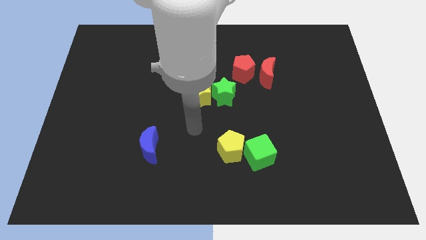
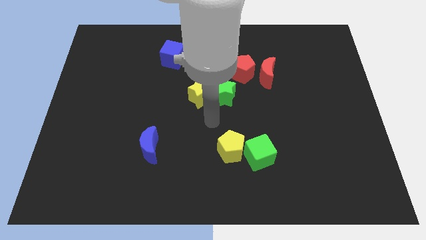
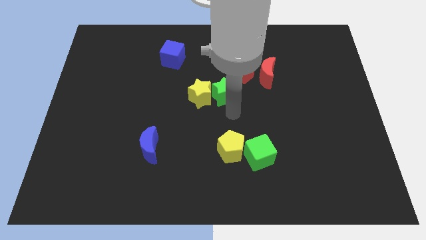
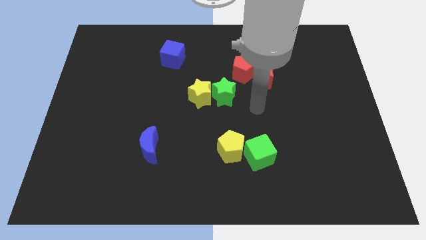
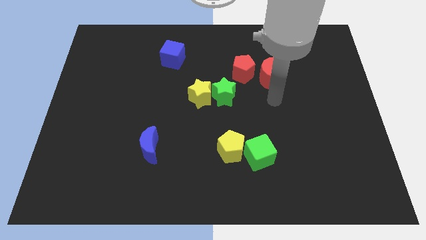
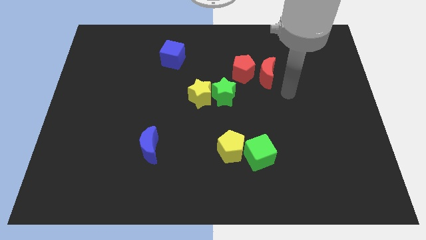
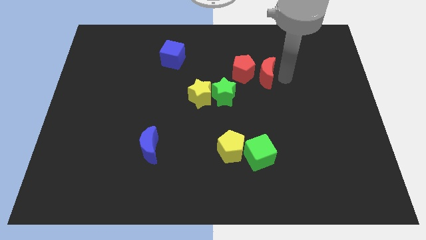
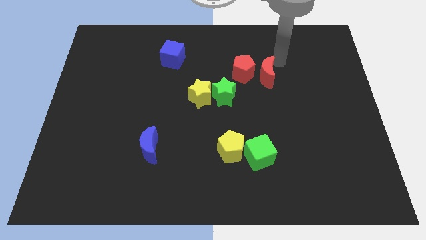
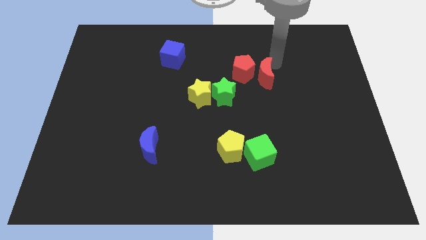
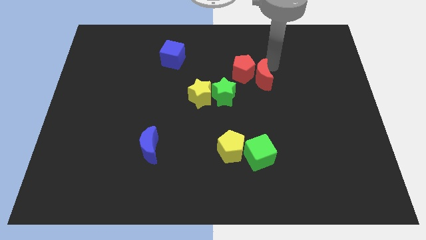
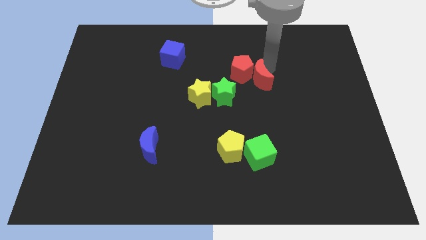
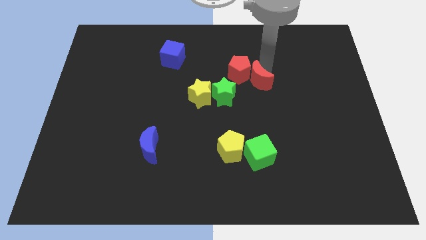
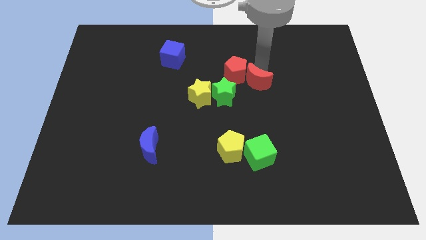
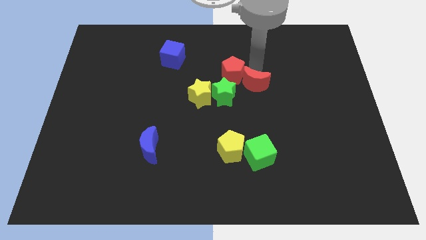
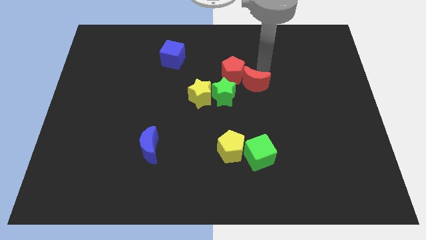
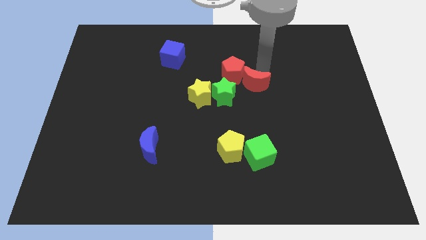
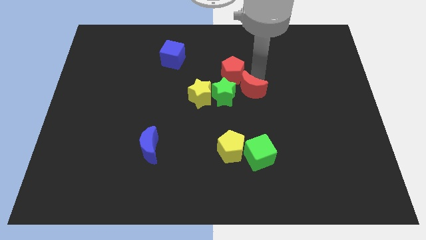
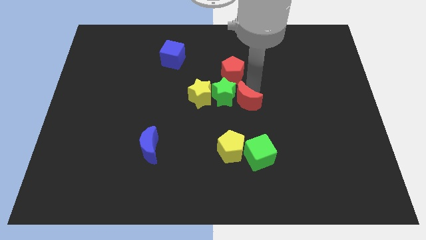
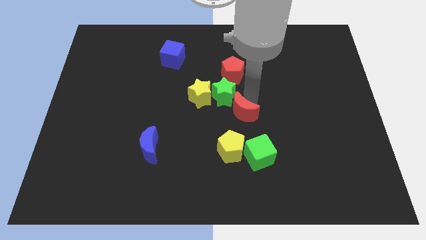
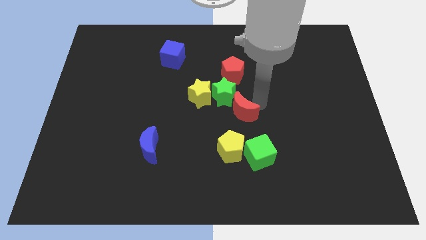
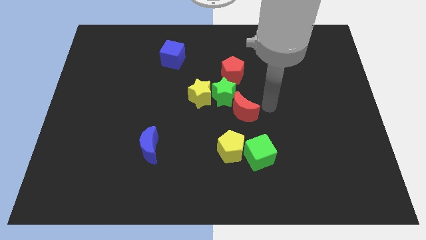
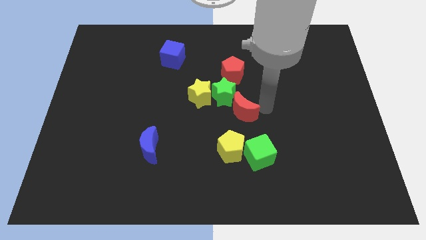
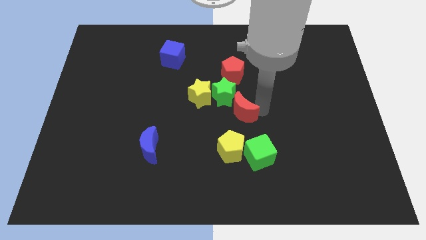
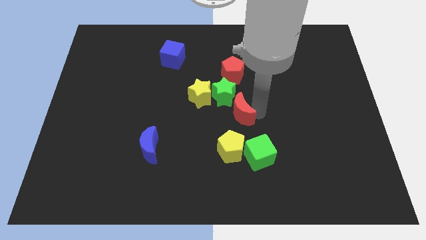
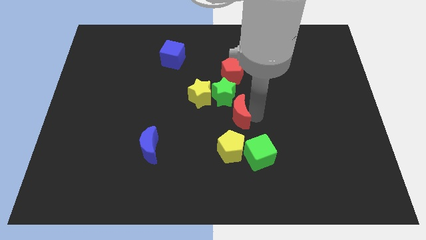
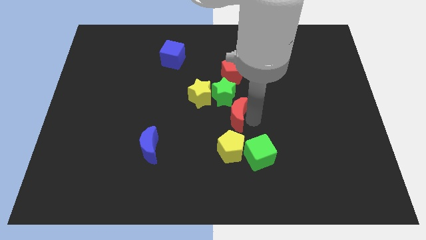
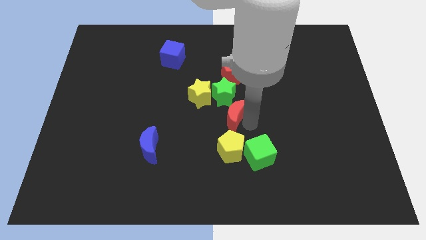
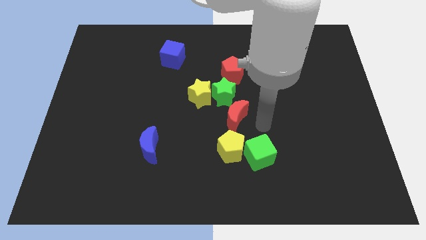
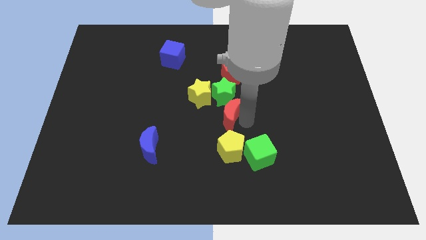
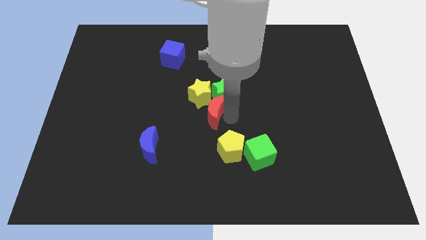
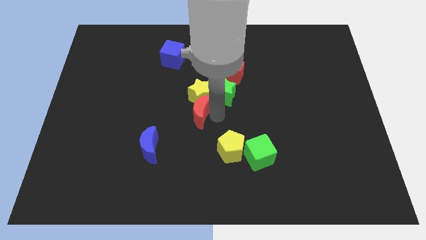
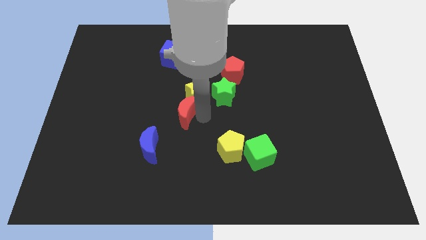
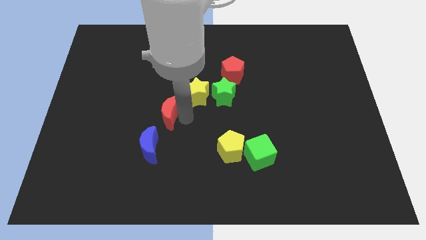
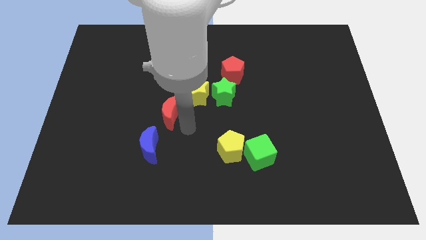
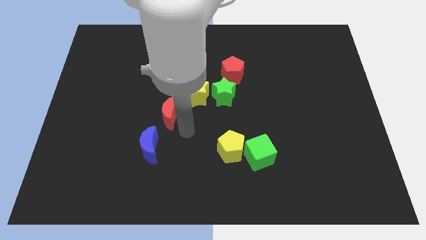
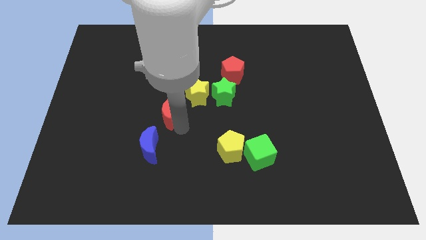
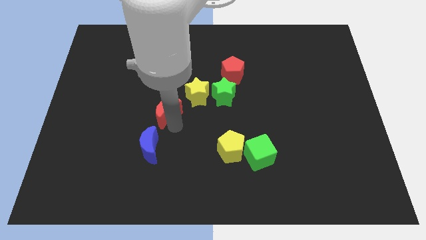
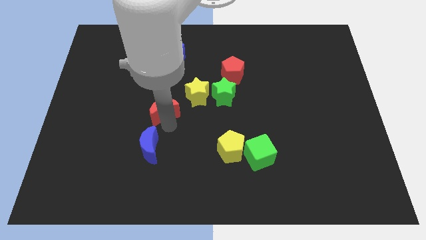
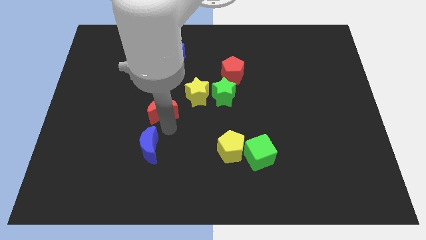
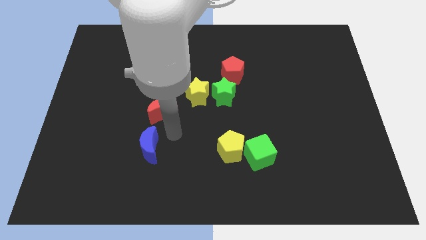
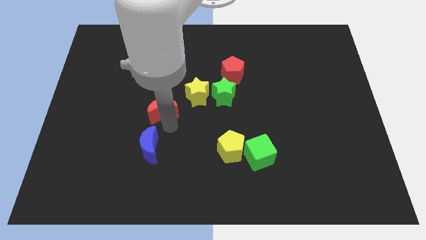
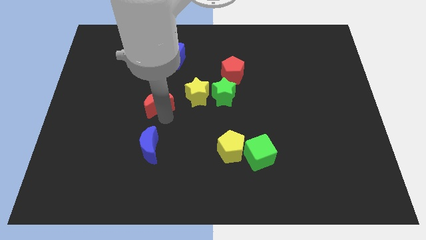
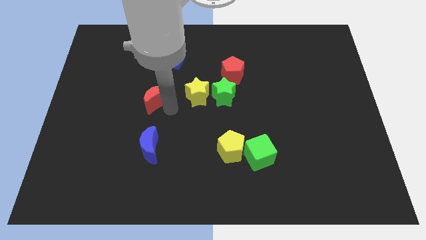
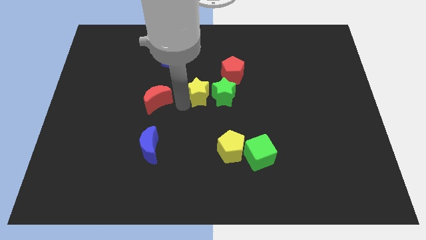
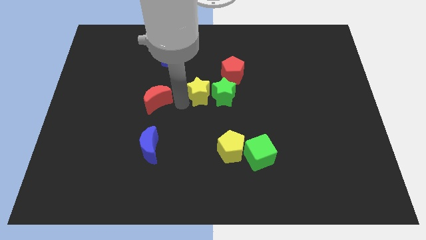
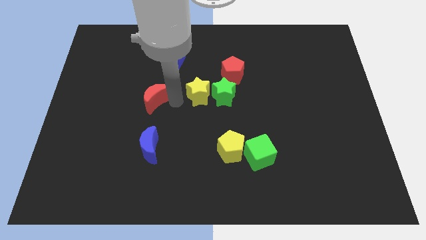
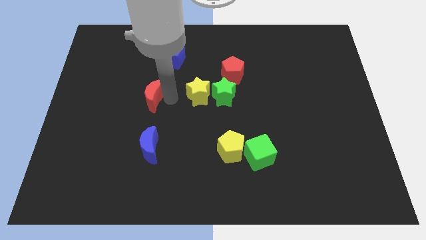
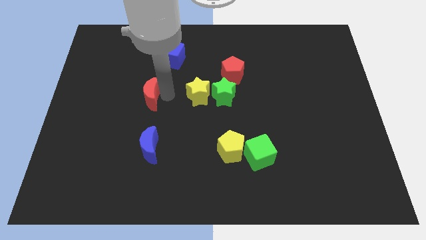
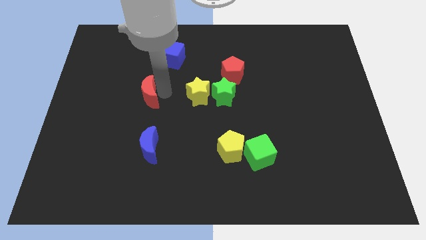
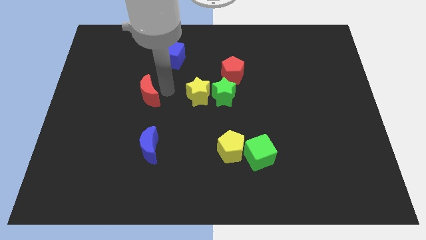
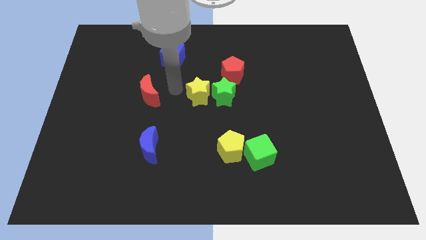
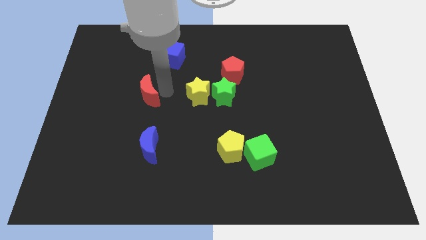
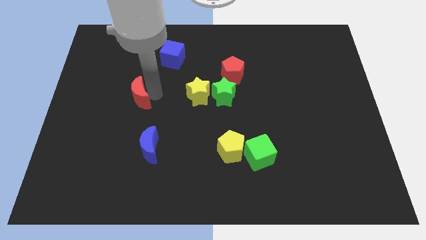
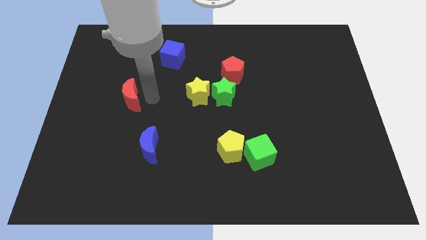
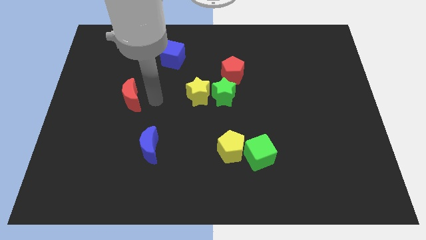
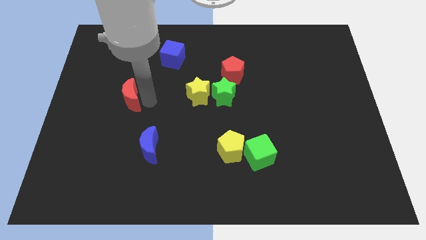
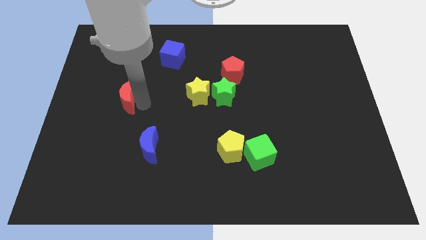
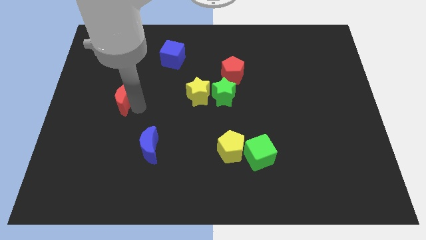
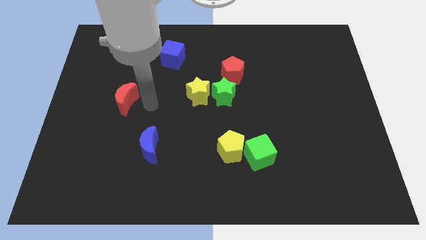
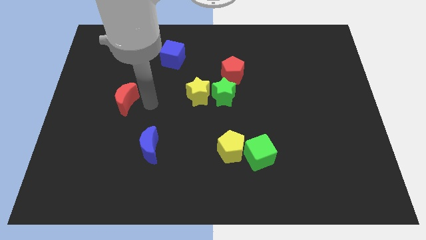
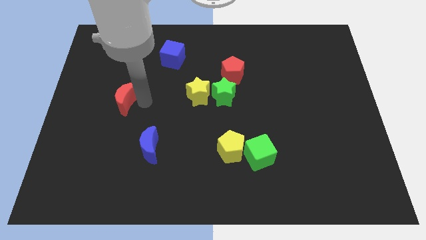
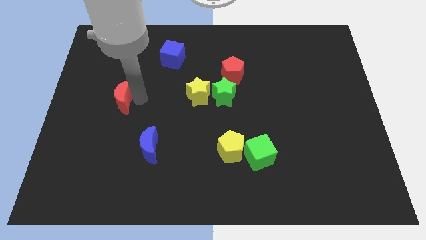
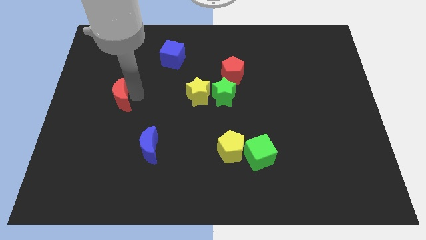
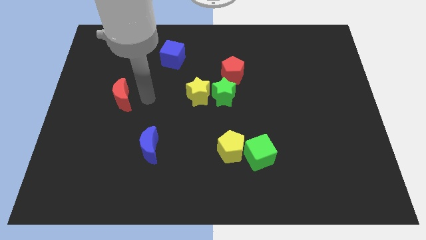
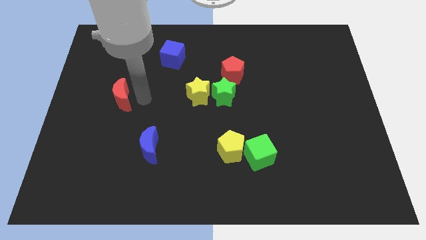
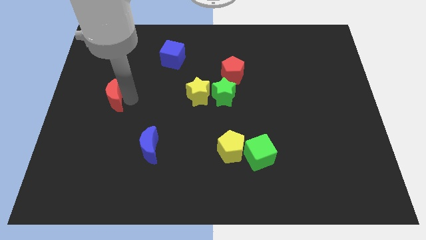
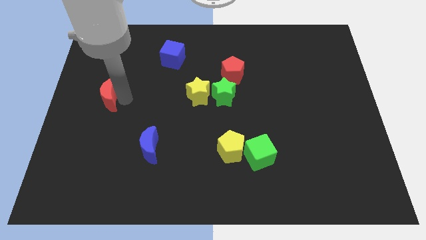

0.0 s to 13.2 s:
slide the red moon to the left side of the board

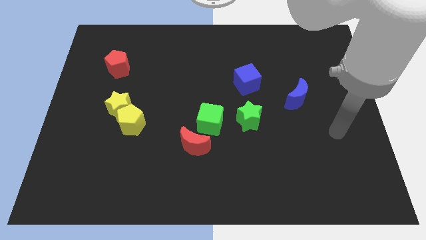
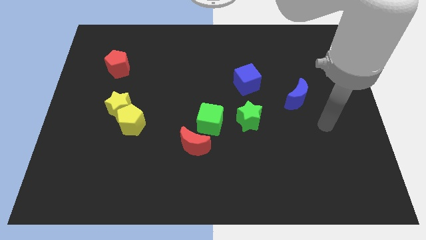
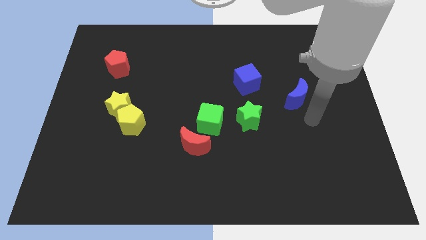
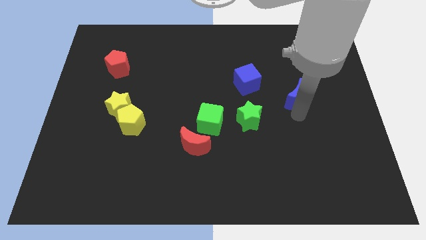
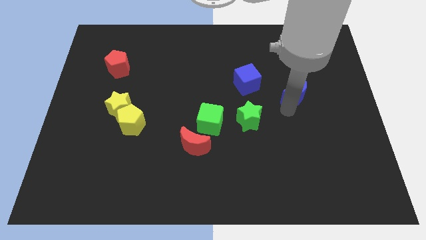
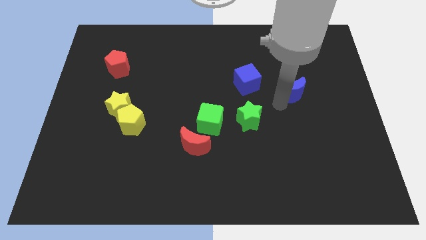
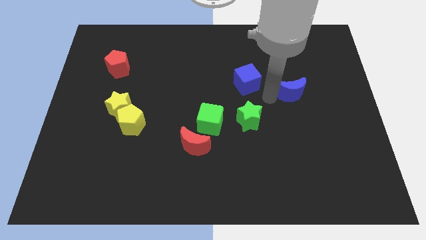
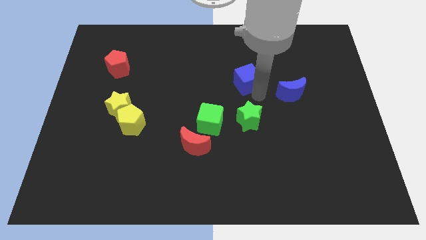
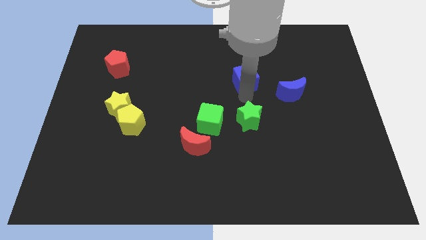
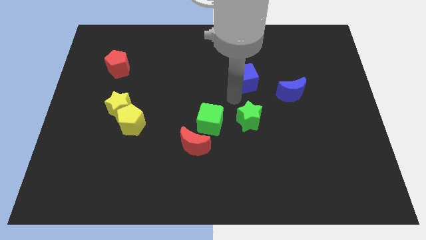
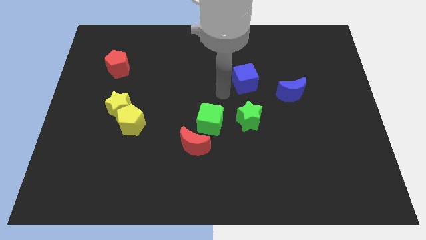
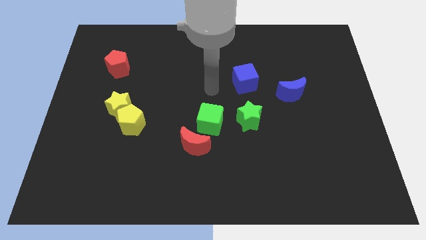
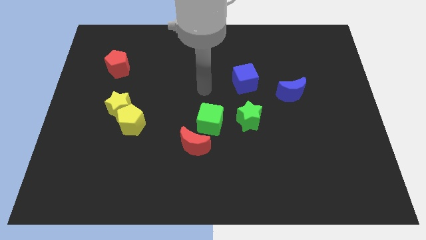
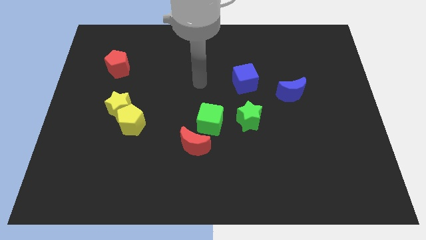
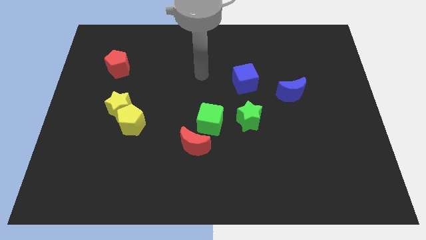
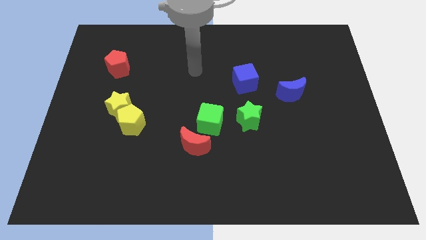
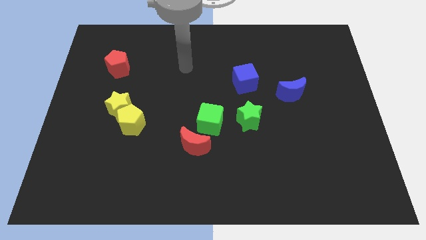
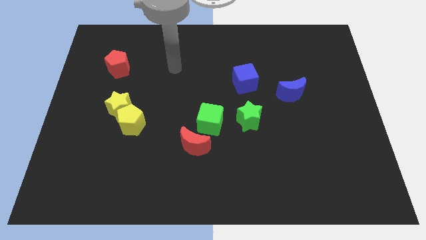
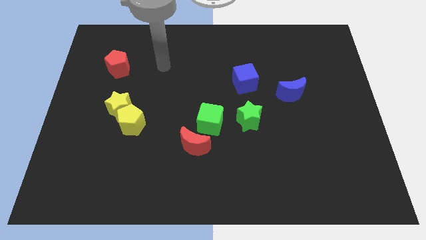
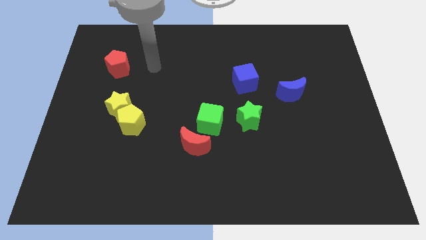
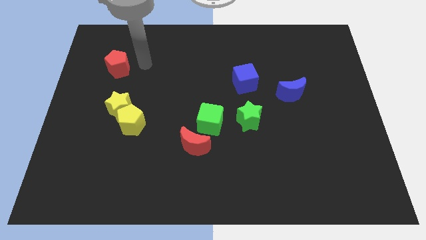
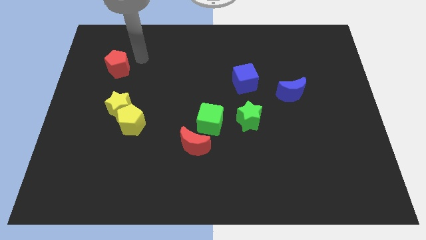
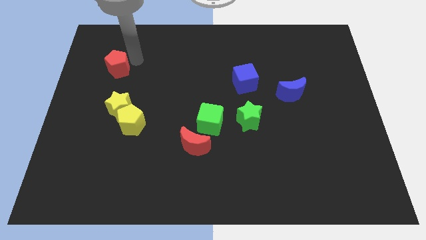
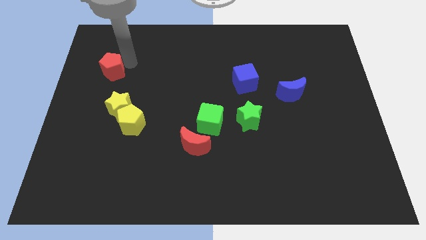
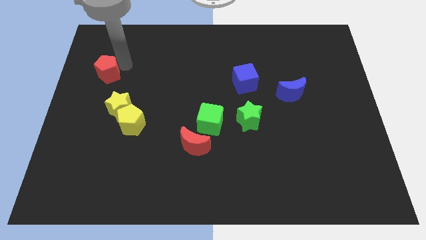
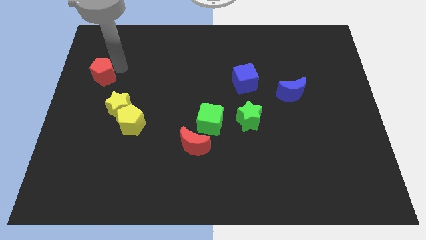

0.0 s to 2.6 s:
slide the red pentagon to the left side
